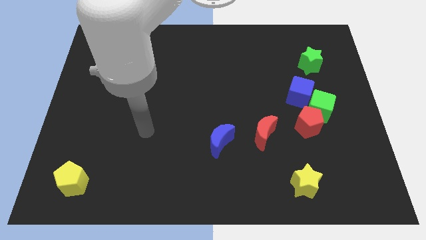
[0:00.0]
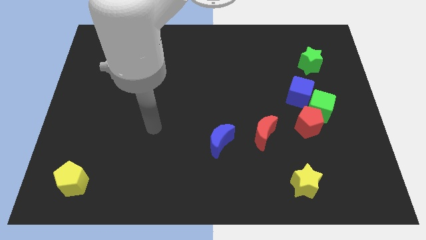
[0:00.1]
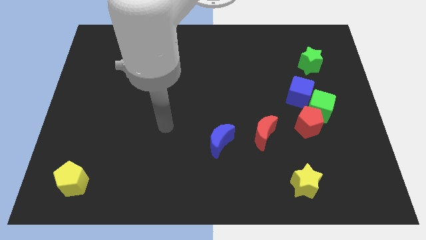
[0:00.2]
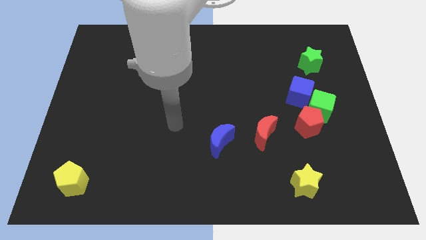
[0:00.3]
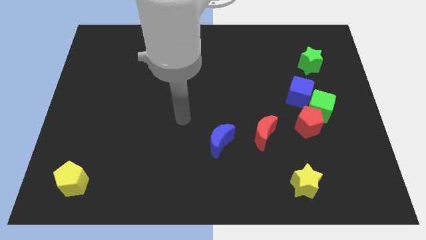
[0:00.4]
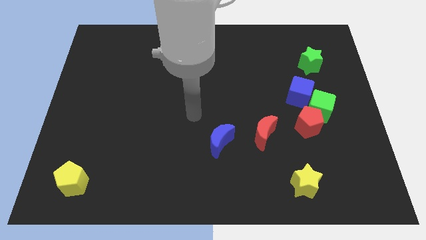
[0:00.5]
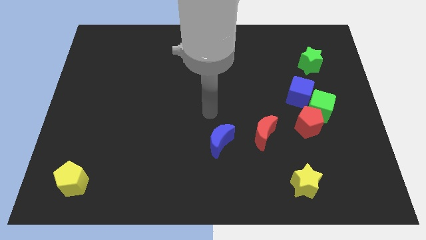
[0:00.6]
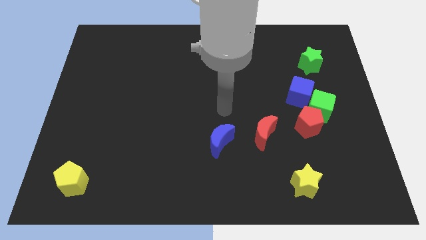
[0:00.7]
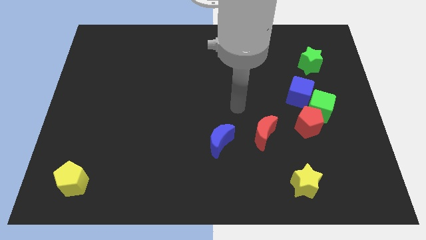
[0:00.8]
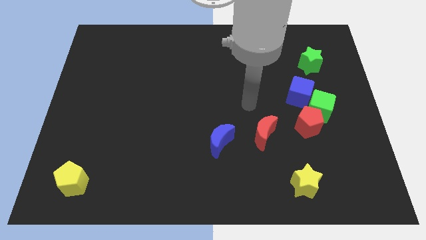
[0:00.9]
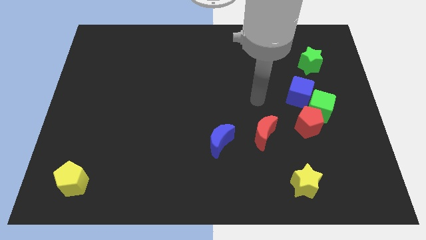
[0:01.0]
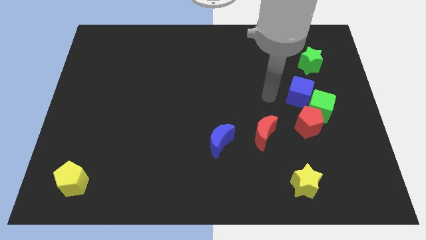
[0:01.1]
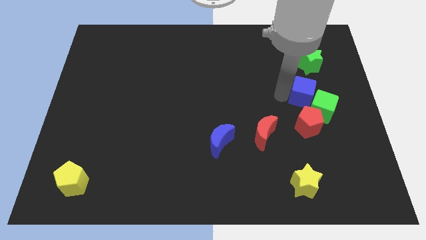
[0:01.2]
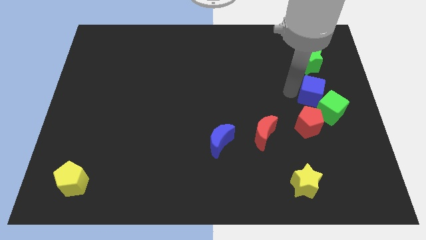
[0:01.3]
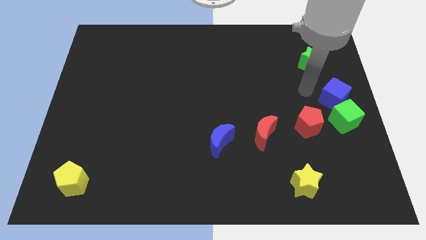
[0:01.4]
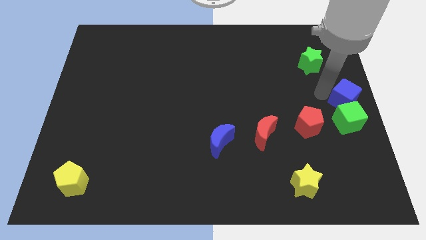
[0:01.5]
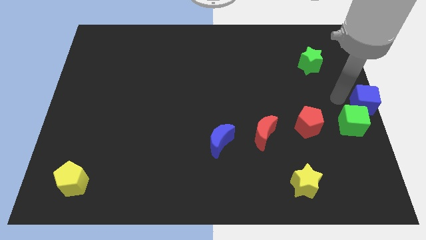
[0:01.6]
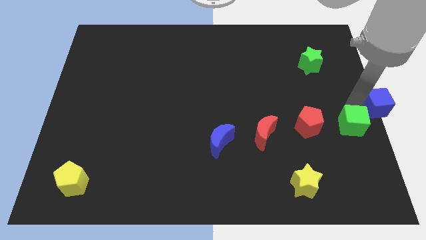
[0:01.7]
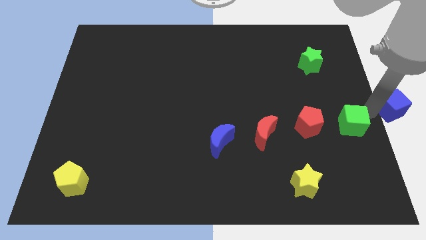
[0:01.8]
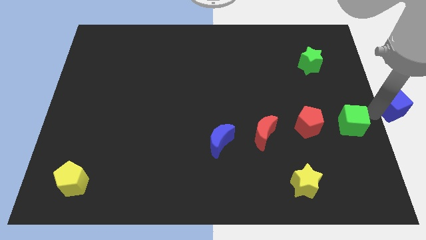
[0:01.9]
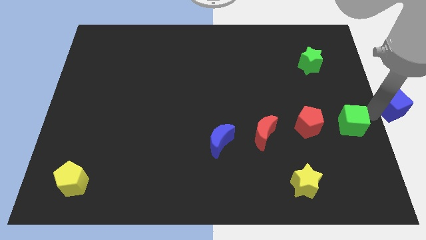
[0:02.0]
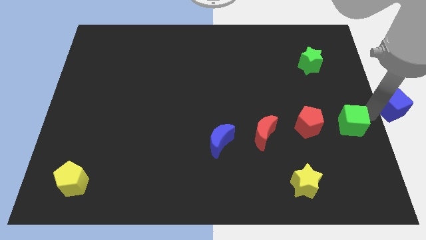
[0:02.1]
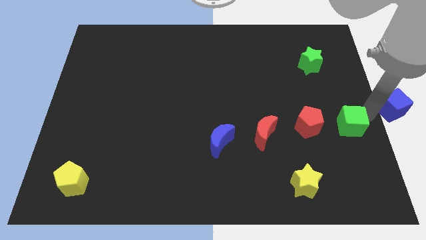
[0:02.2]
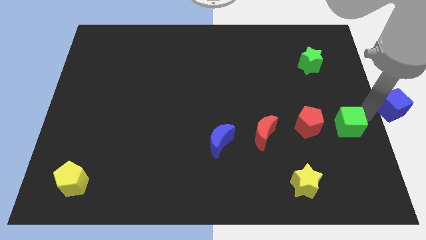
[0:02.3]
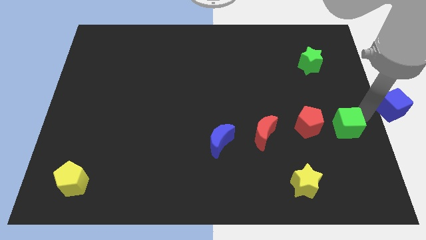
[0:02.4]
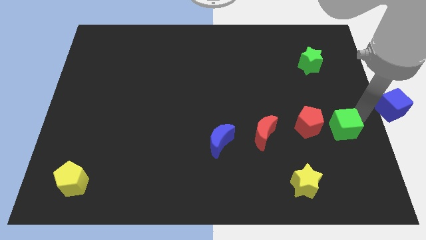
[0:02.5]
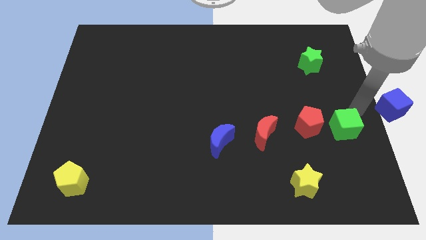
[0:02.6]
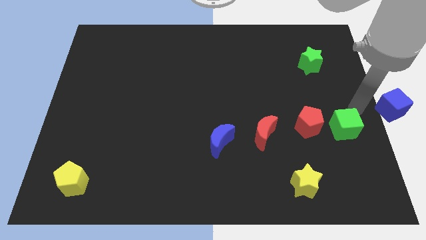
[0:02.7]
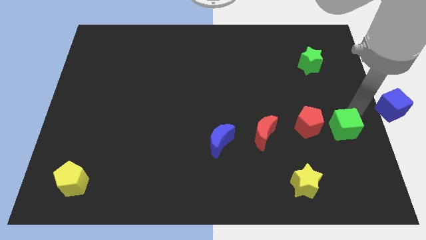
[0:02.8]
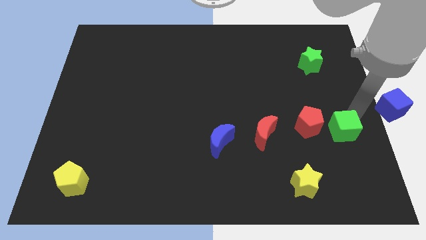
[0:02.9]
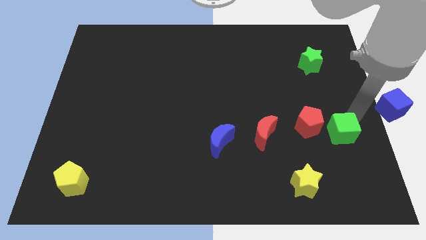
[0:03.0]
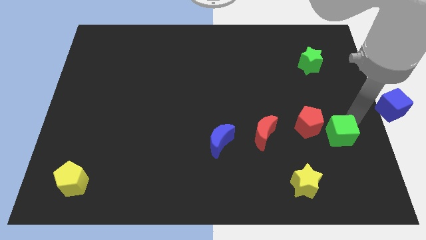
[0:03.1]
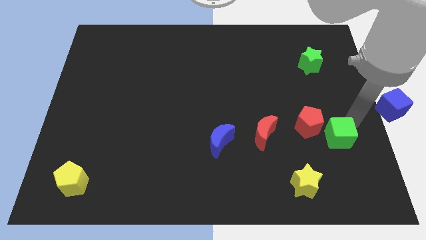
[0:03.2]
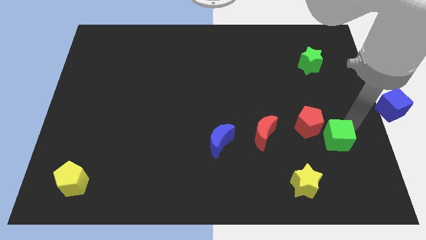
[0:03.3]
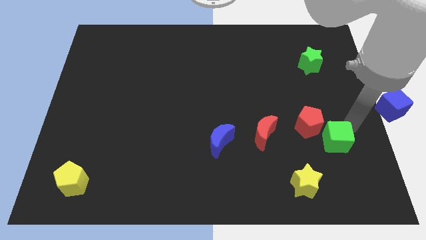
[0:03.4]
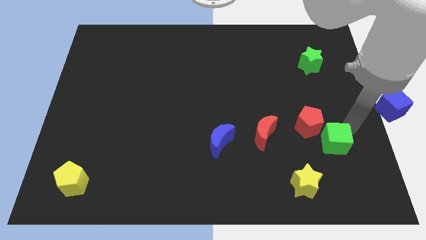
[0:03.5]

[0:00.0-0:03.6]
move the green cube to the bottom of the red pentagon

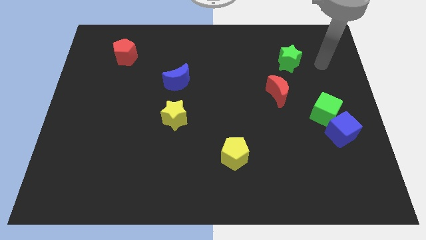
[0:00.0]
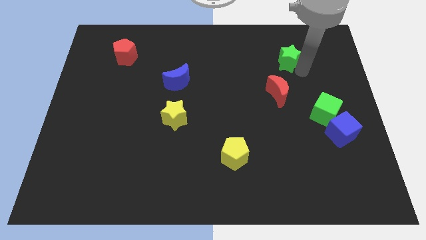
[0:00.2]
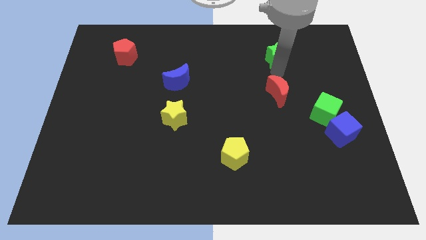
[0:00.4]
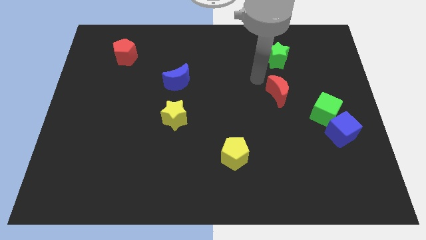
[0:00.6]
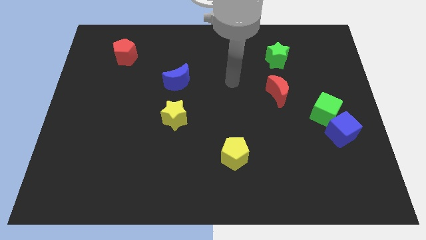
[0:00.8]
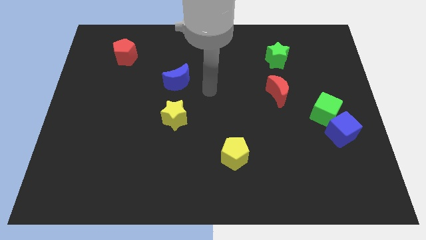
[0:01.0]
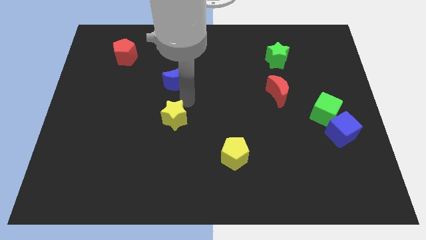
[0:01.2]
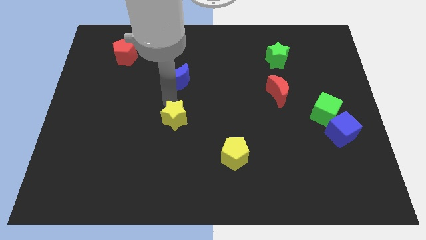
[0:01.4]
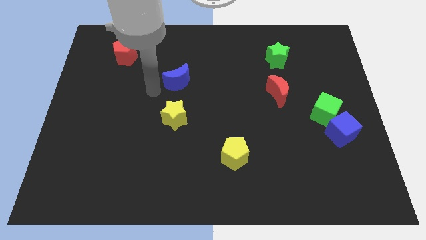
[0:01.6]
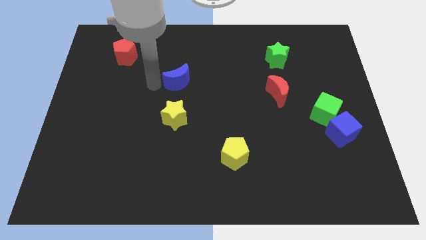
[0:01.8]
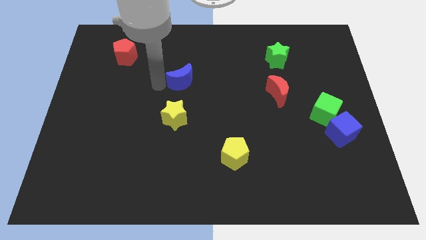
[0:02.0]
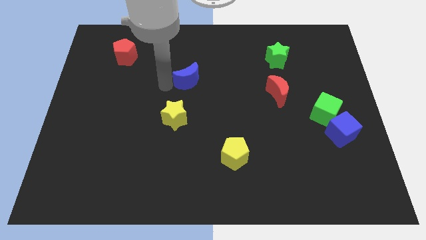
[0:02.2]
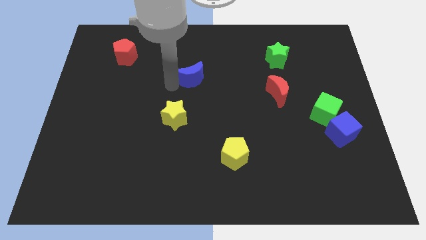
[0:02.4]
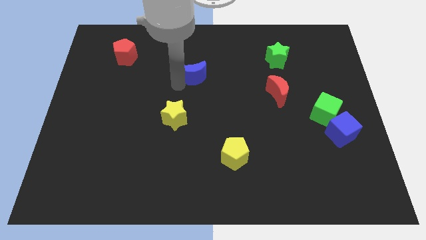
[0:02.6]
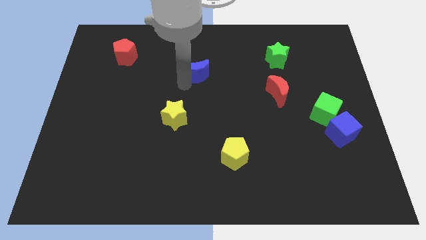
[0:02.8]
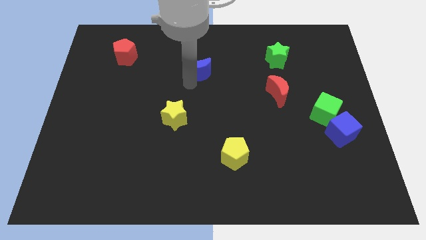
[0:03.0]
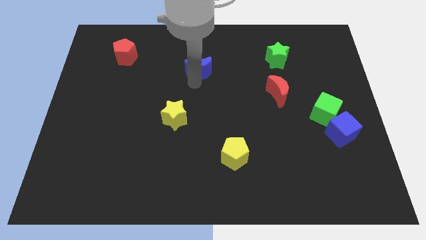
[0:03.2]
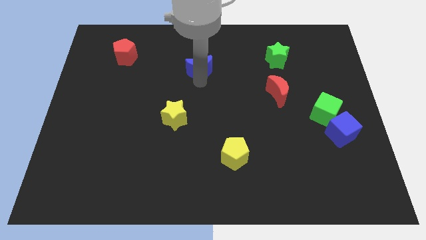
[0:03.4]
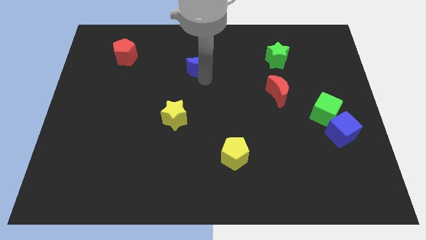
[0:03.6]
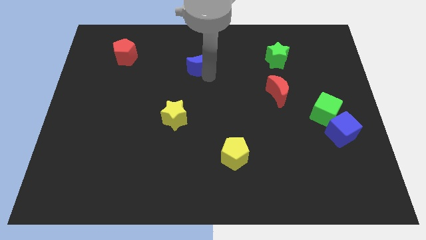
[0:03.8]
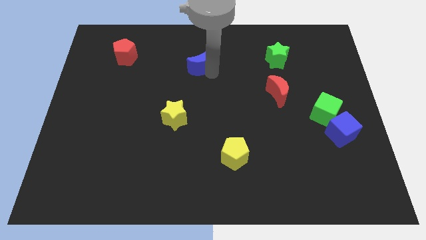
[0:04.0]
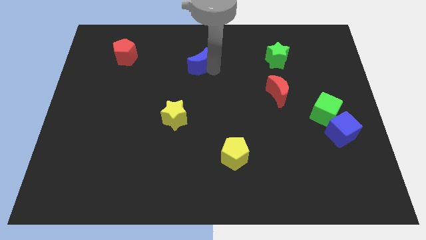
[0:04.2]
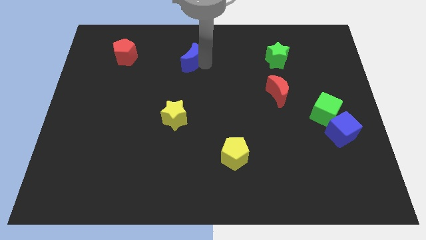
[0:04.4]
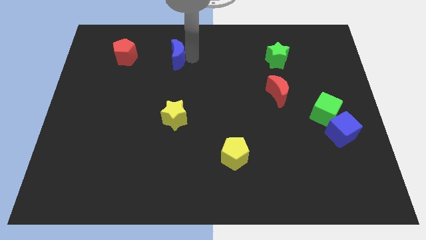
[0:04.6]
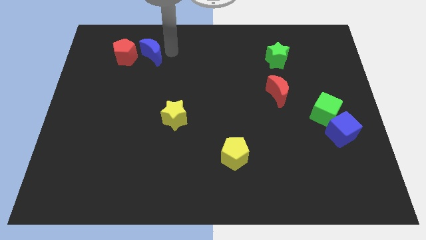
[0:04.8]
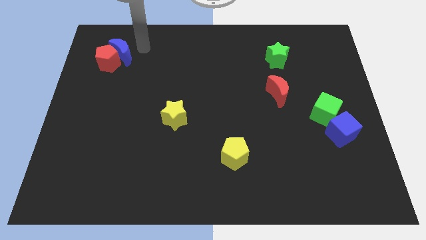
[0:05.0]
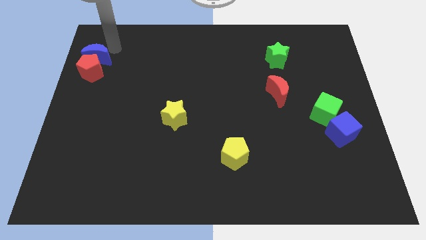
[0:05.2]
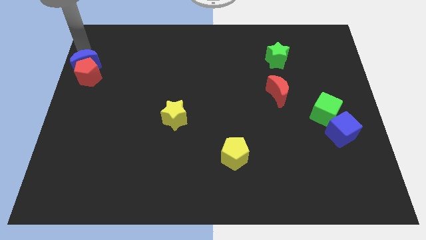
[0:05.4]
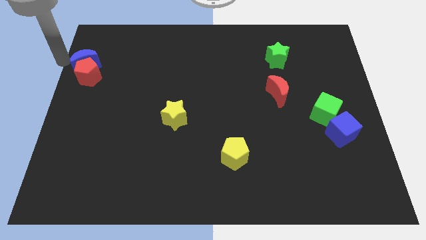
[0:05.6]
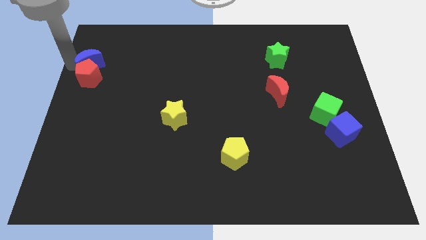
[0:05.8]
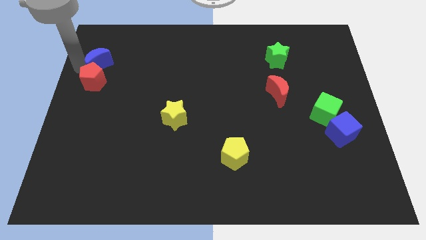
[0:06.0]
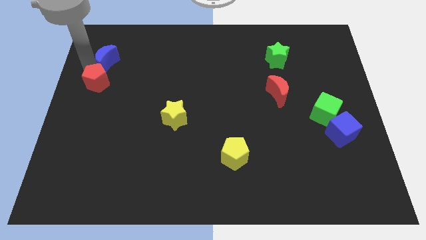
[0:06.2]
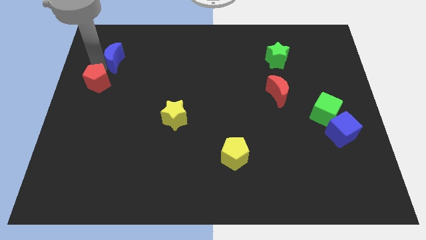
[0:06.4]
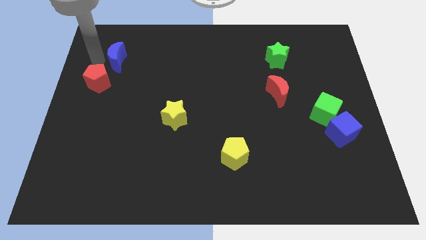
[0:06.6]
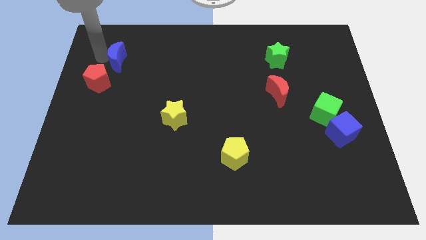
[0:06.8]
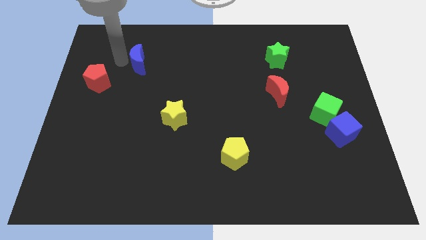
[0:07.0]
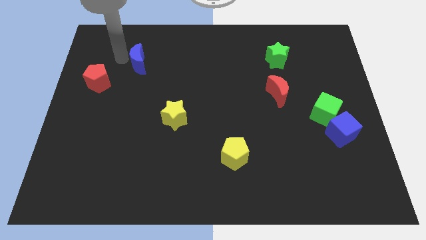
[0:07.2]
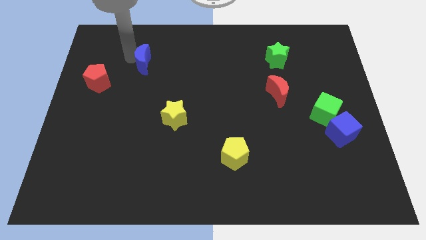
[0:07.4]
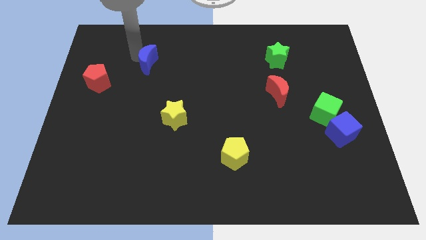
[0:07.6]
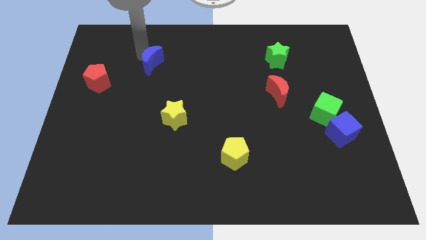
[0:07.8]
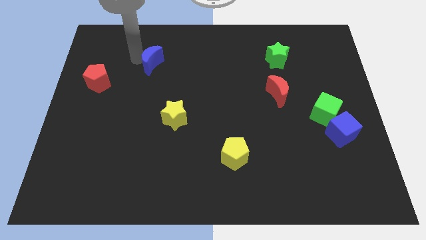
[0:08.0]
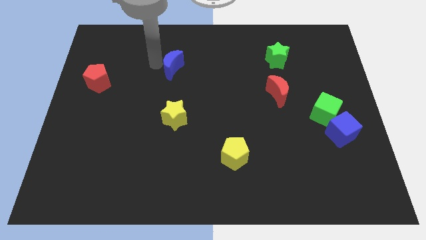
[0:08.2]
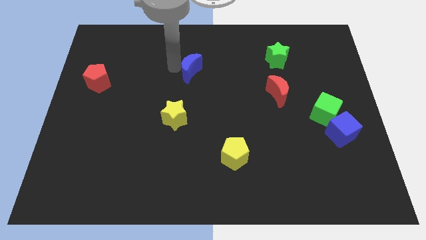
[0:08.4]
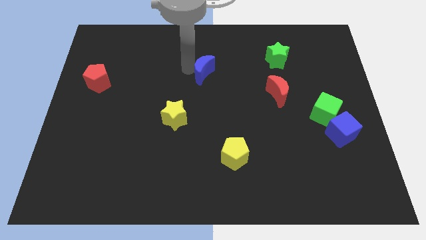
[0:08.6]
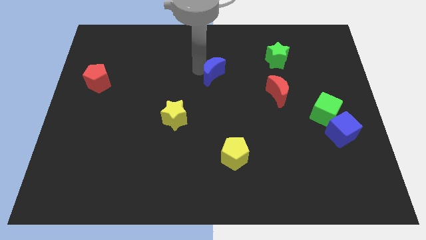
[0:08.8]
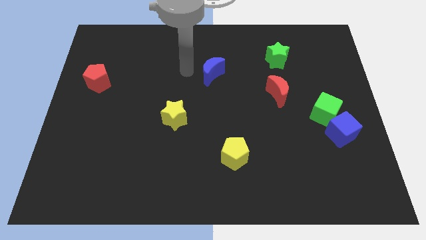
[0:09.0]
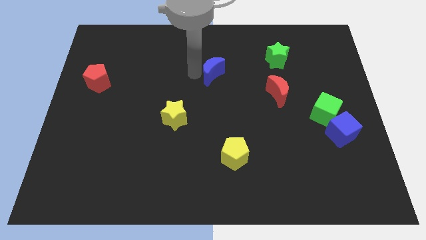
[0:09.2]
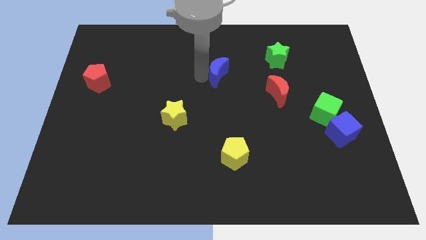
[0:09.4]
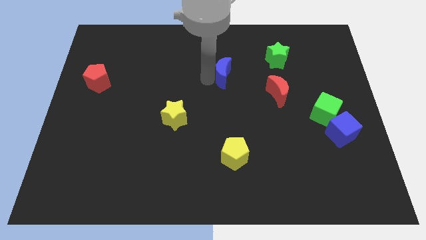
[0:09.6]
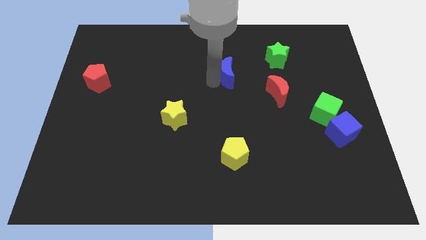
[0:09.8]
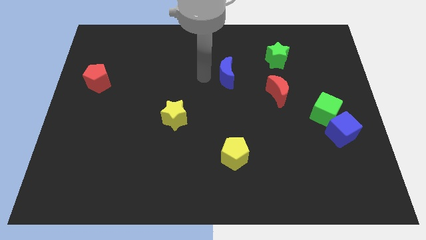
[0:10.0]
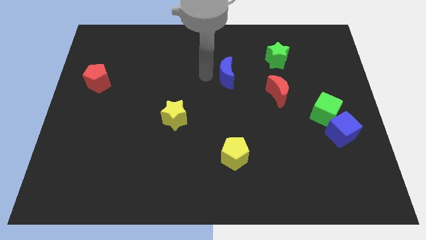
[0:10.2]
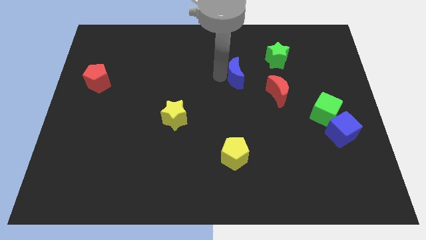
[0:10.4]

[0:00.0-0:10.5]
move the blue moon to the top left of the red moon
